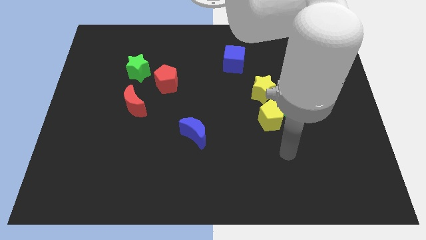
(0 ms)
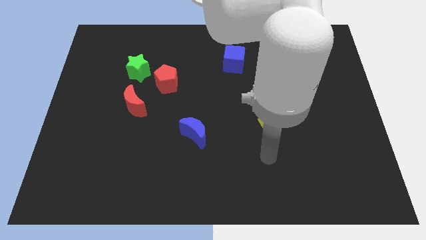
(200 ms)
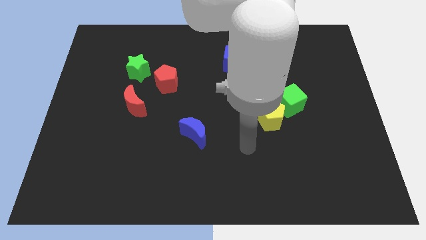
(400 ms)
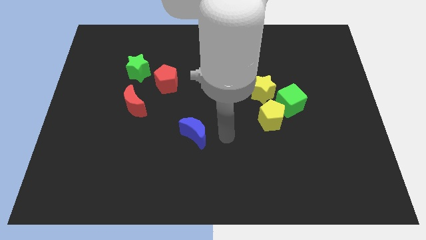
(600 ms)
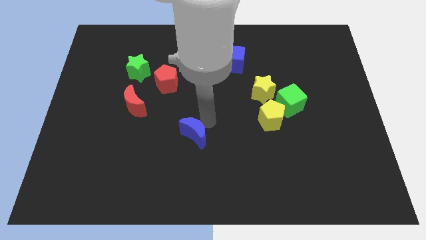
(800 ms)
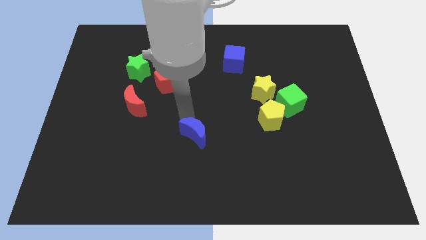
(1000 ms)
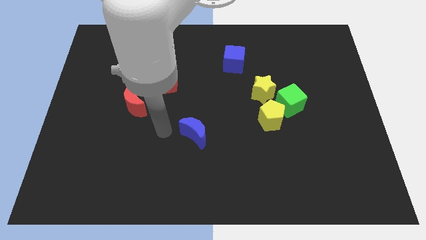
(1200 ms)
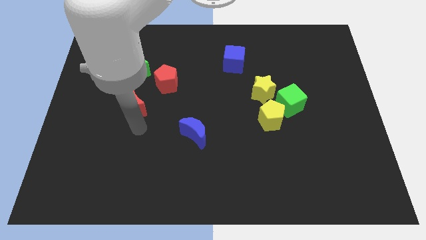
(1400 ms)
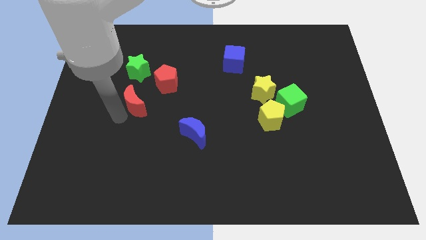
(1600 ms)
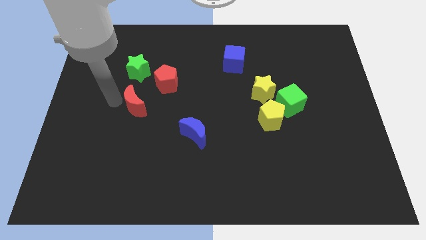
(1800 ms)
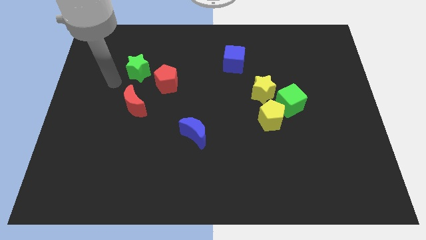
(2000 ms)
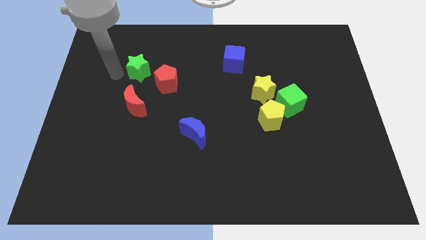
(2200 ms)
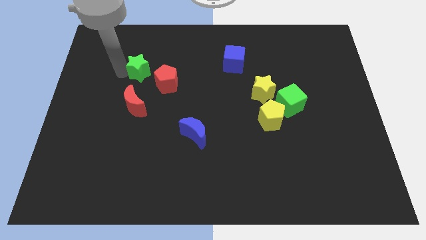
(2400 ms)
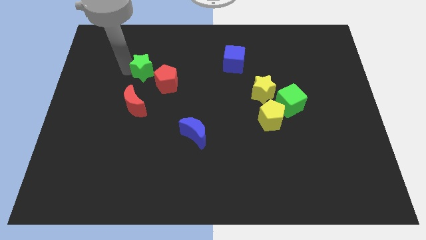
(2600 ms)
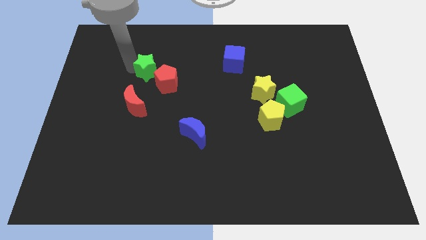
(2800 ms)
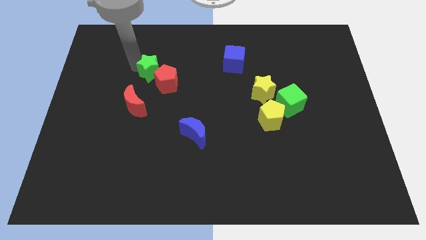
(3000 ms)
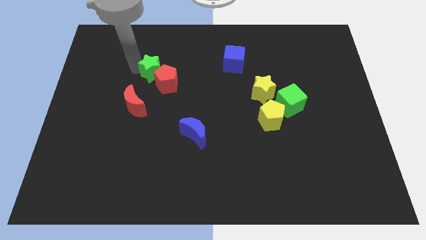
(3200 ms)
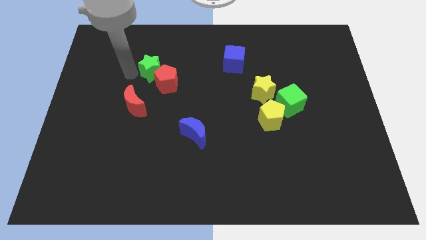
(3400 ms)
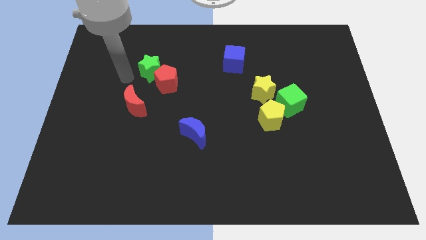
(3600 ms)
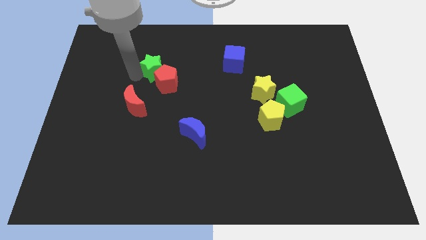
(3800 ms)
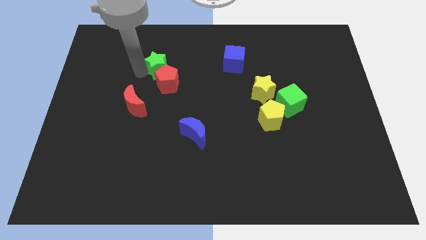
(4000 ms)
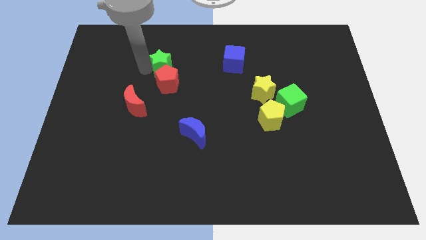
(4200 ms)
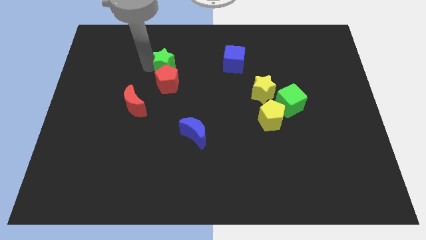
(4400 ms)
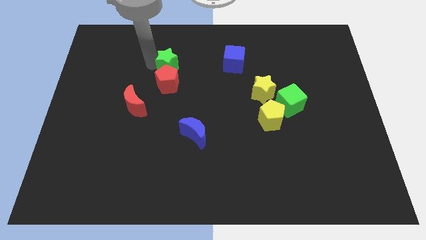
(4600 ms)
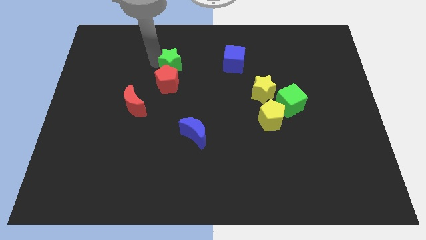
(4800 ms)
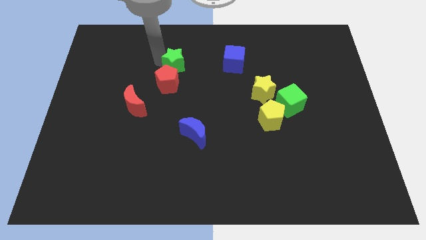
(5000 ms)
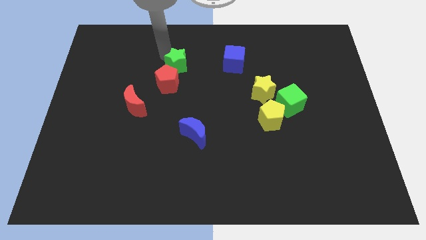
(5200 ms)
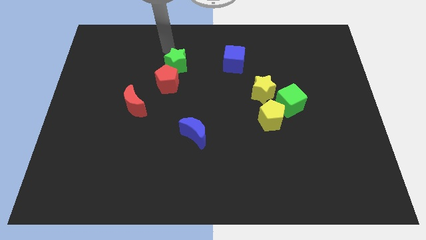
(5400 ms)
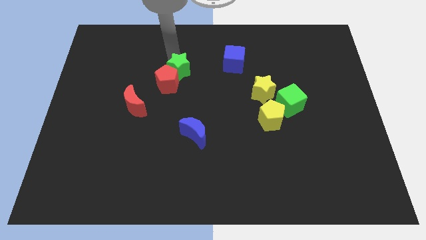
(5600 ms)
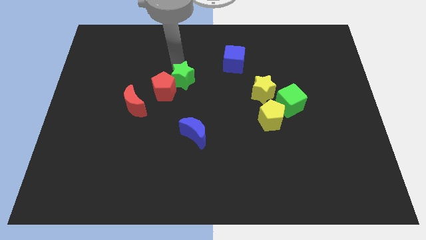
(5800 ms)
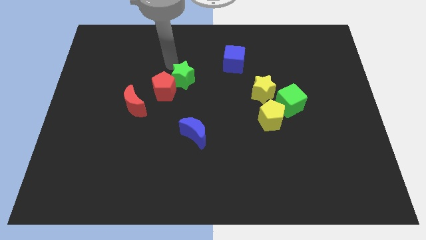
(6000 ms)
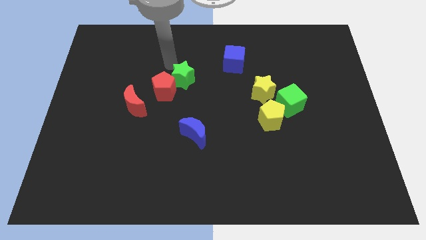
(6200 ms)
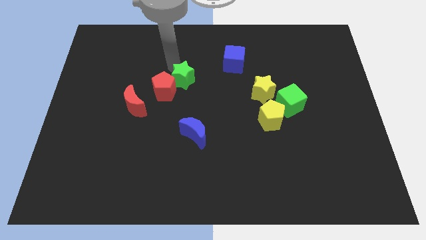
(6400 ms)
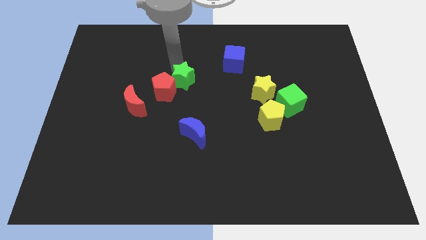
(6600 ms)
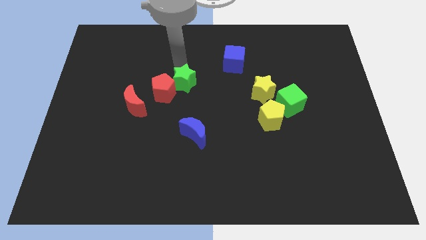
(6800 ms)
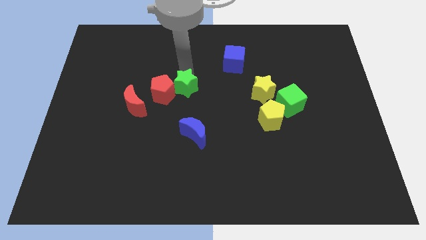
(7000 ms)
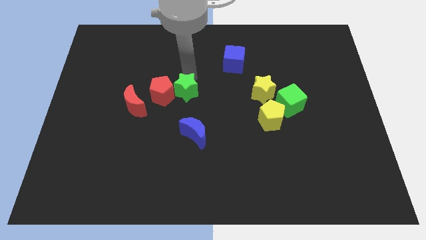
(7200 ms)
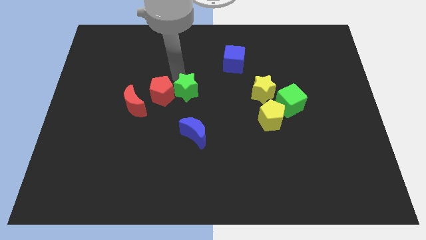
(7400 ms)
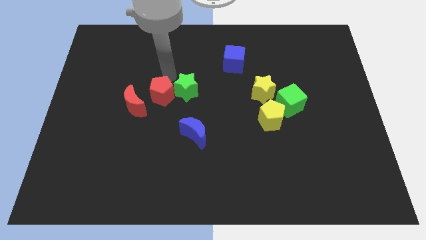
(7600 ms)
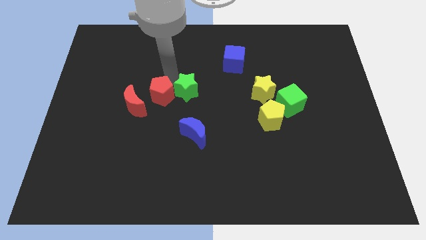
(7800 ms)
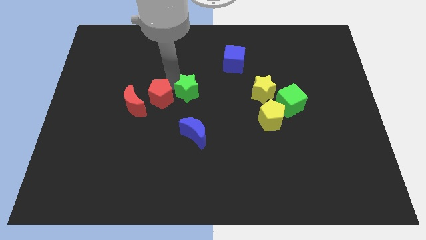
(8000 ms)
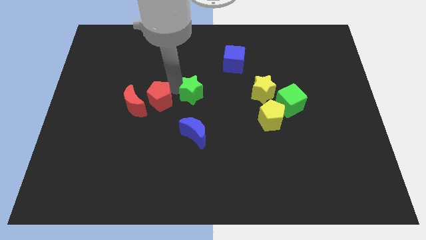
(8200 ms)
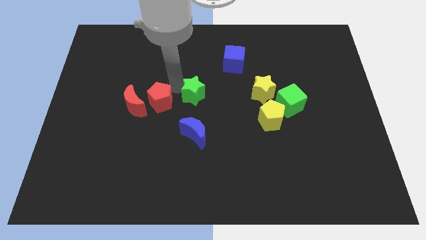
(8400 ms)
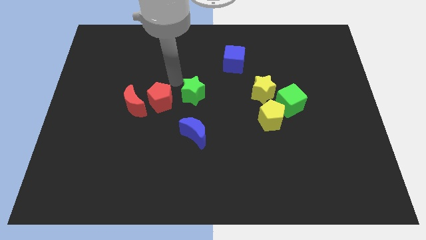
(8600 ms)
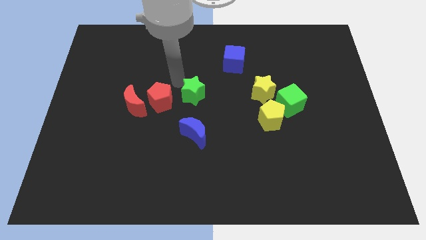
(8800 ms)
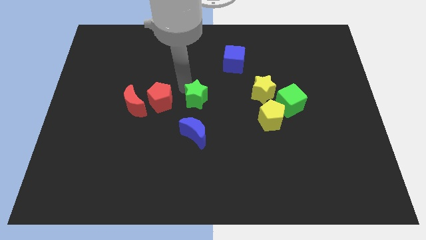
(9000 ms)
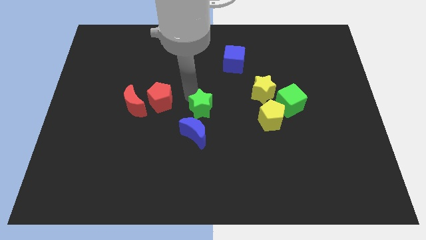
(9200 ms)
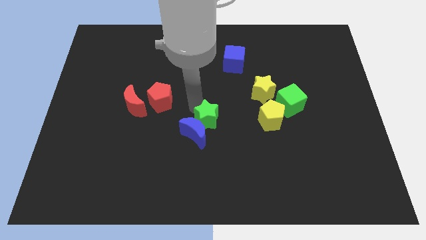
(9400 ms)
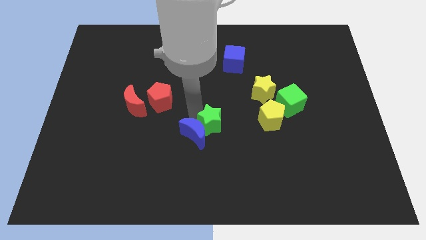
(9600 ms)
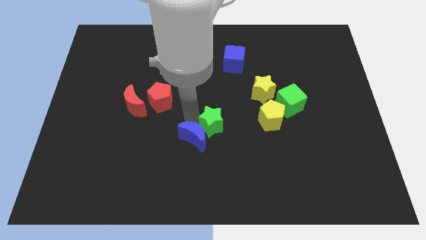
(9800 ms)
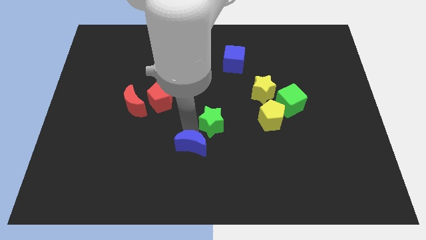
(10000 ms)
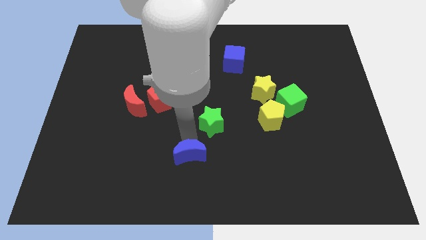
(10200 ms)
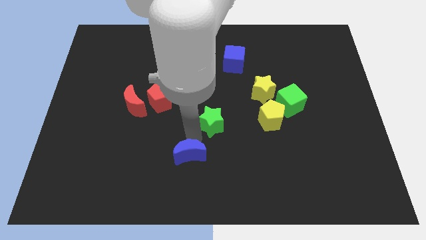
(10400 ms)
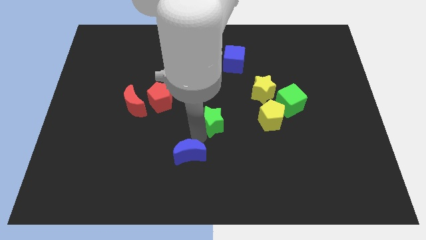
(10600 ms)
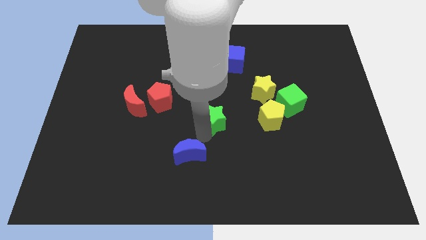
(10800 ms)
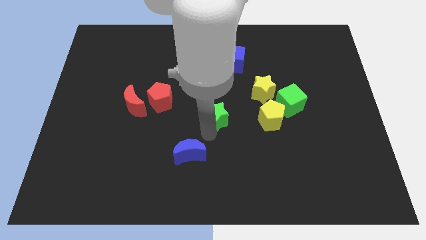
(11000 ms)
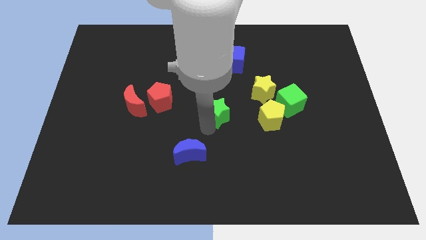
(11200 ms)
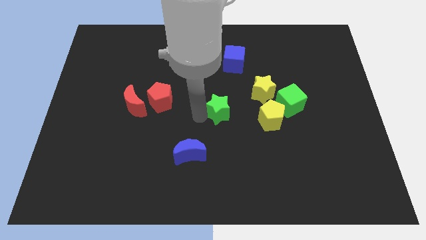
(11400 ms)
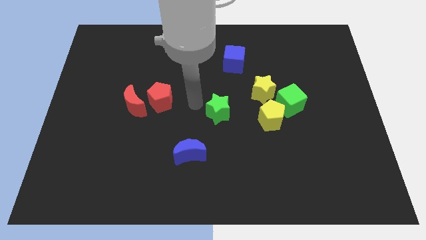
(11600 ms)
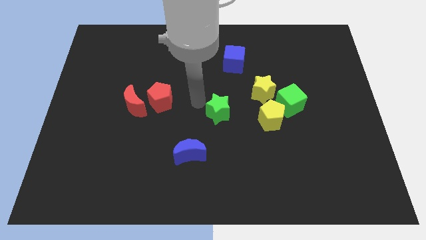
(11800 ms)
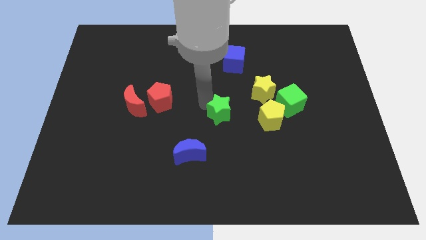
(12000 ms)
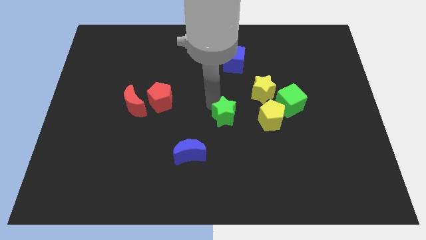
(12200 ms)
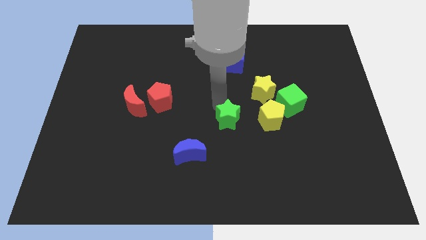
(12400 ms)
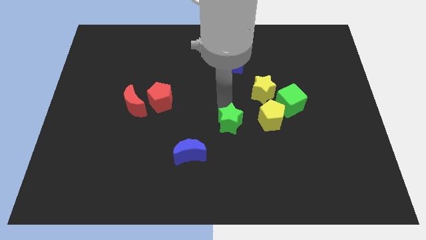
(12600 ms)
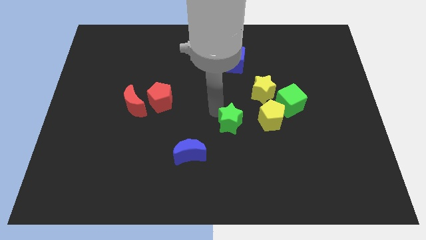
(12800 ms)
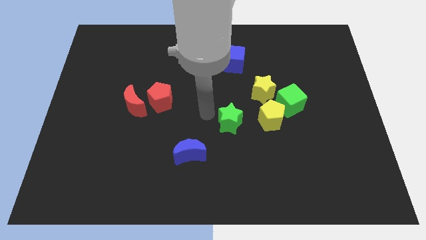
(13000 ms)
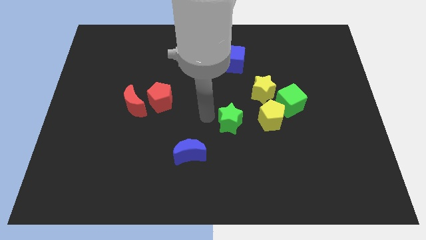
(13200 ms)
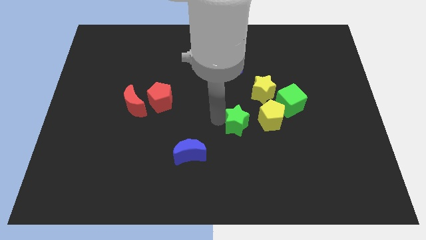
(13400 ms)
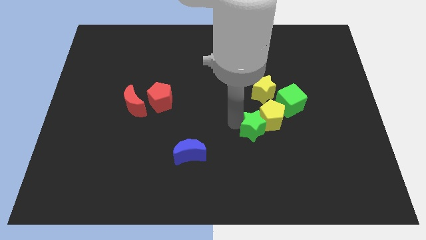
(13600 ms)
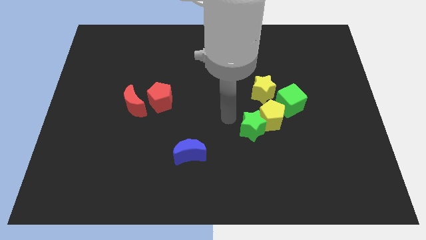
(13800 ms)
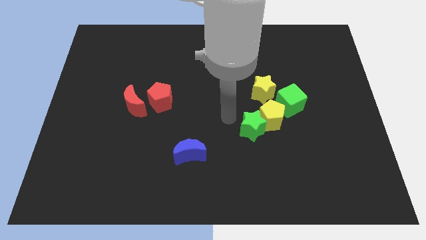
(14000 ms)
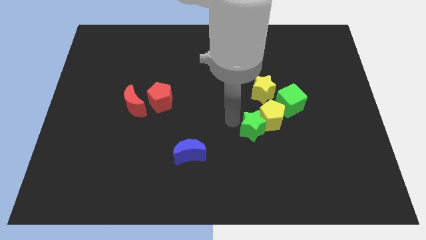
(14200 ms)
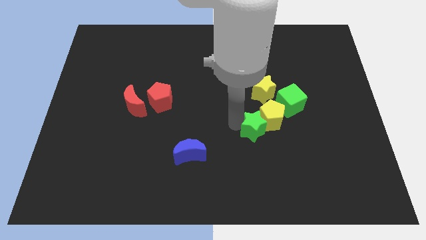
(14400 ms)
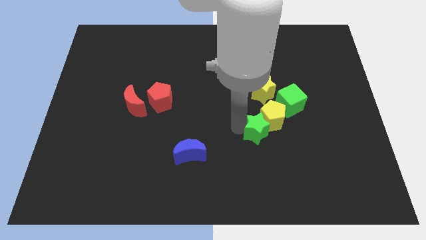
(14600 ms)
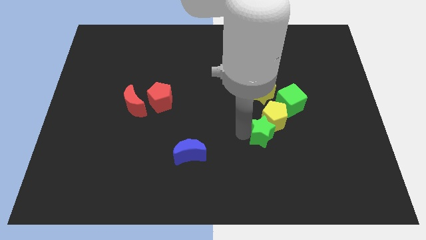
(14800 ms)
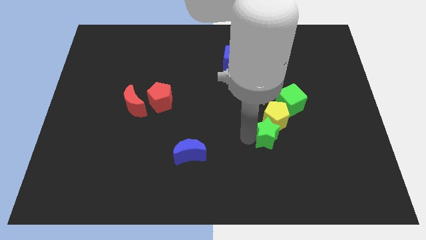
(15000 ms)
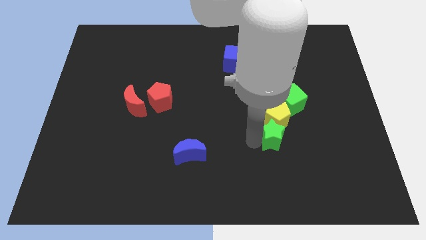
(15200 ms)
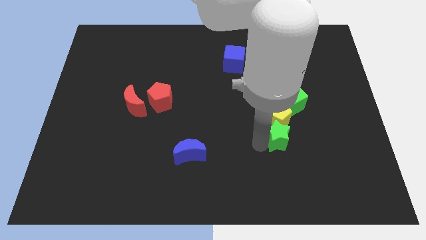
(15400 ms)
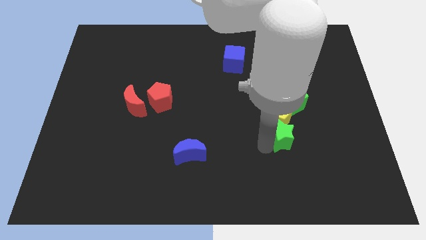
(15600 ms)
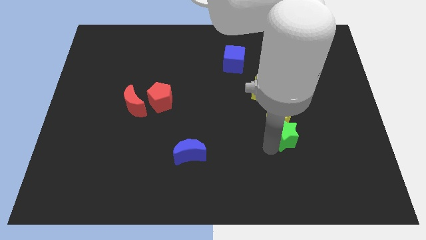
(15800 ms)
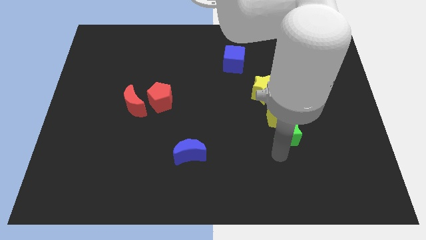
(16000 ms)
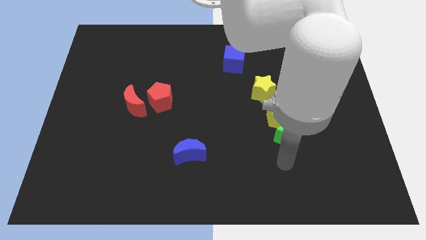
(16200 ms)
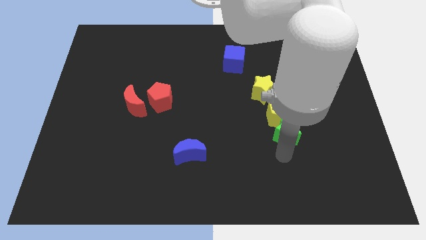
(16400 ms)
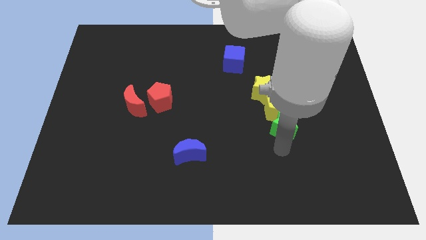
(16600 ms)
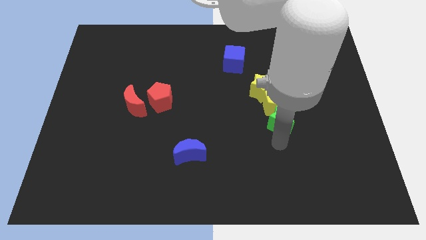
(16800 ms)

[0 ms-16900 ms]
push the green star diagonally down and to the right of the yellow star
